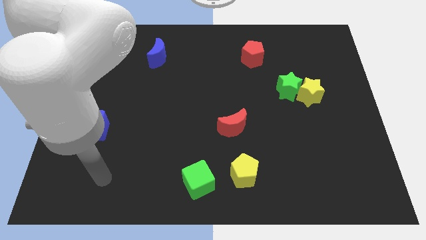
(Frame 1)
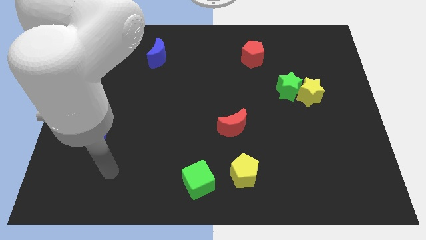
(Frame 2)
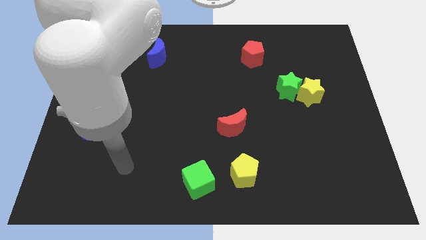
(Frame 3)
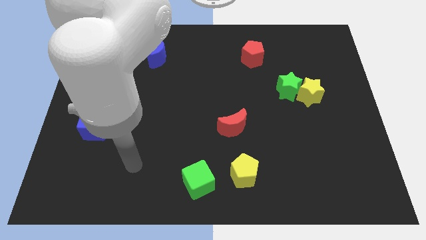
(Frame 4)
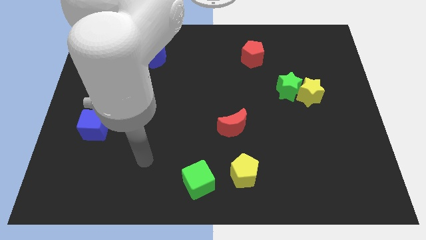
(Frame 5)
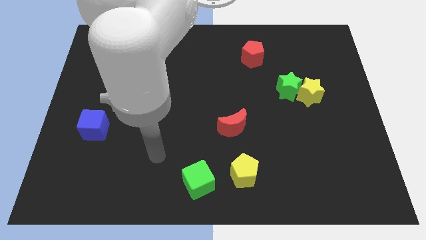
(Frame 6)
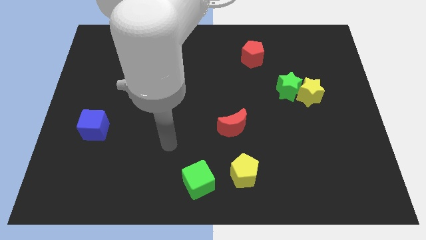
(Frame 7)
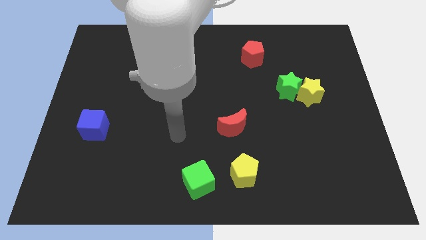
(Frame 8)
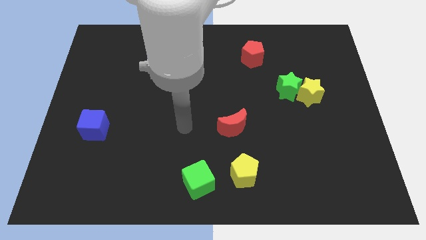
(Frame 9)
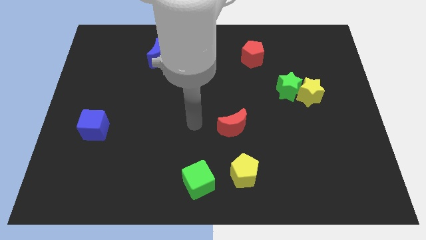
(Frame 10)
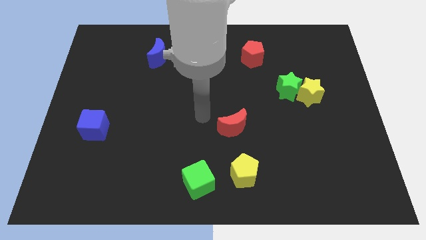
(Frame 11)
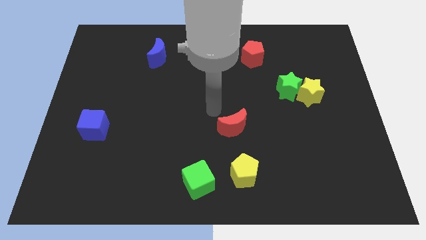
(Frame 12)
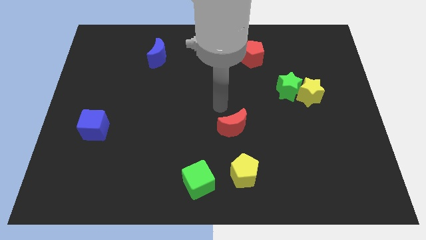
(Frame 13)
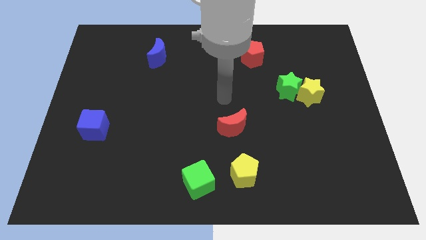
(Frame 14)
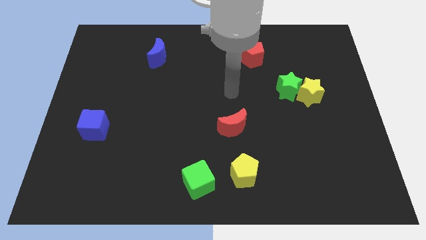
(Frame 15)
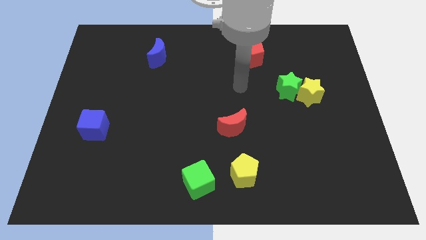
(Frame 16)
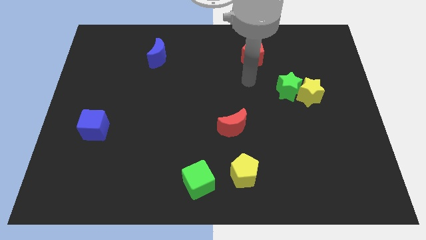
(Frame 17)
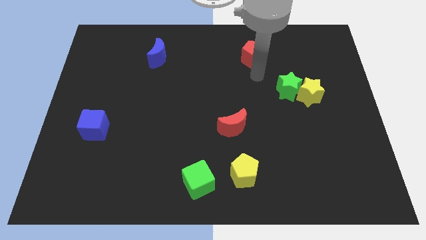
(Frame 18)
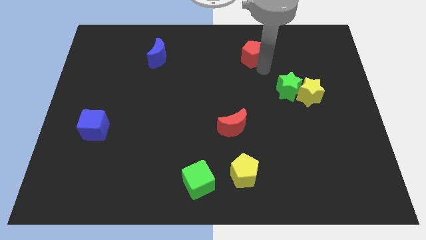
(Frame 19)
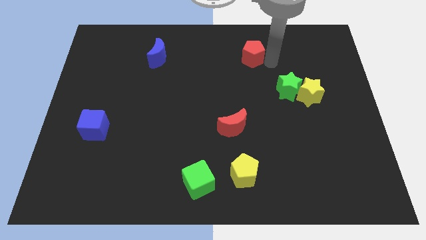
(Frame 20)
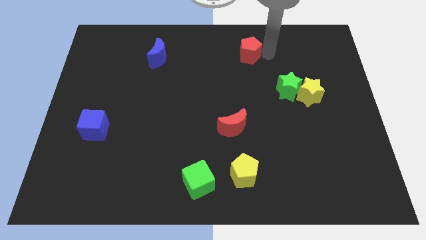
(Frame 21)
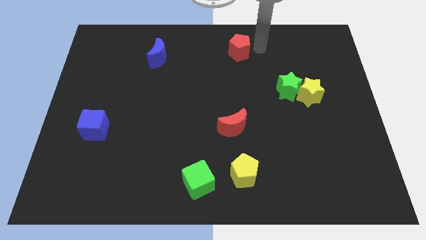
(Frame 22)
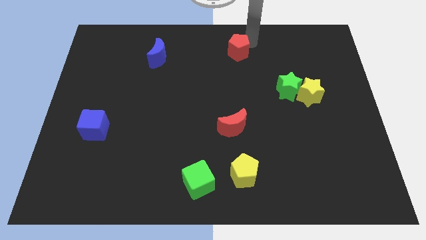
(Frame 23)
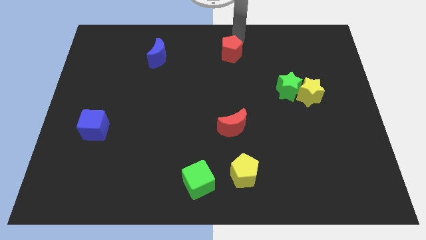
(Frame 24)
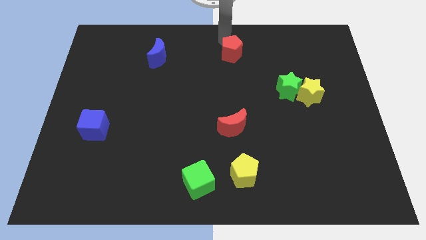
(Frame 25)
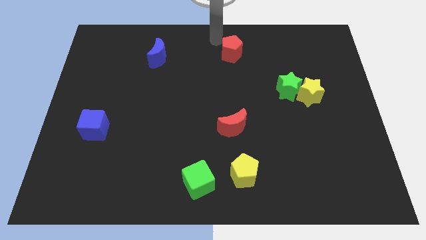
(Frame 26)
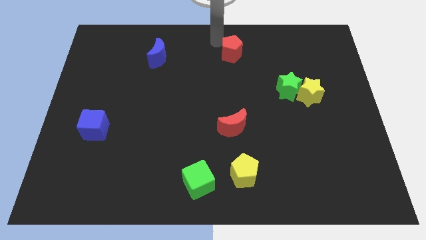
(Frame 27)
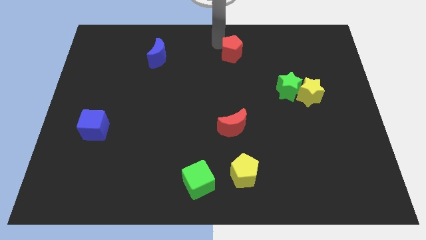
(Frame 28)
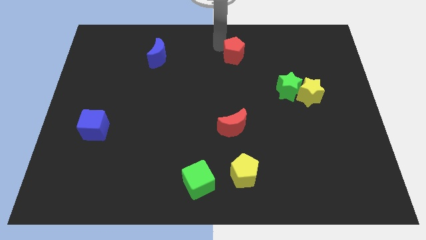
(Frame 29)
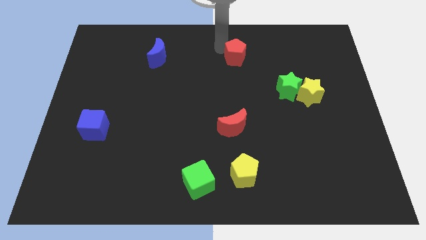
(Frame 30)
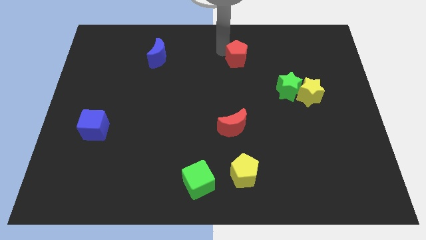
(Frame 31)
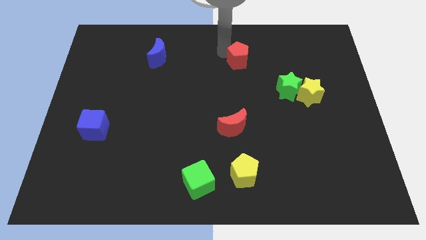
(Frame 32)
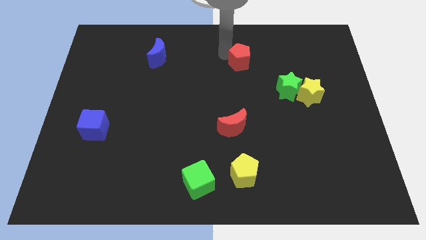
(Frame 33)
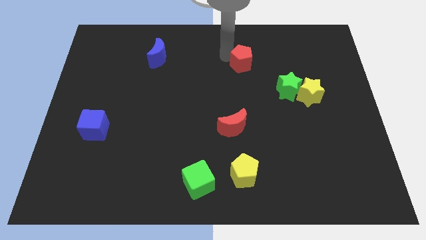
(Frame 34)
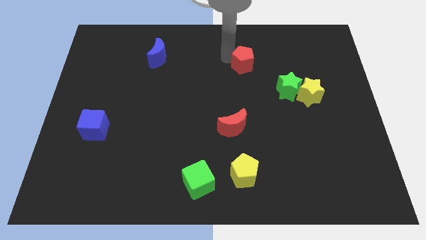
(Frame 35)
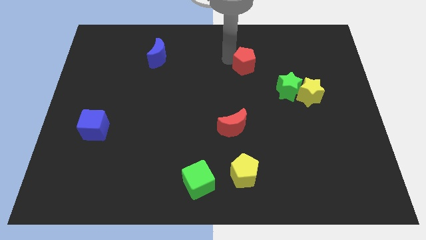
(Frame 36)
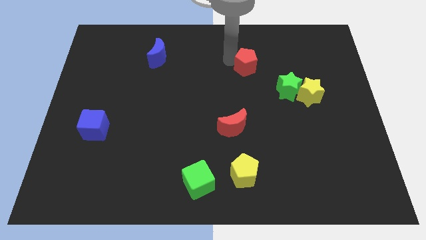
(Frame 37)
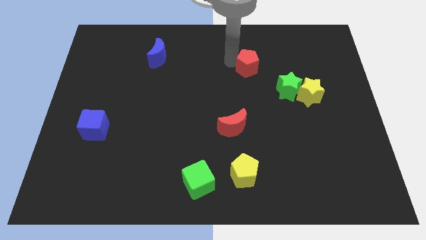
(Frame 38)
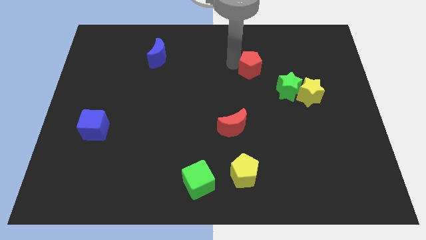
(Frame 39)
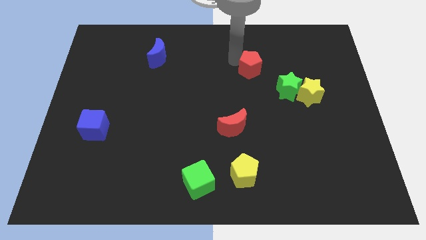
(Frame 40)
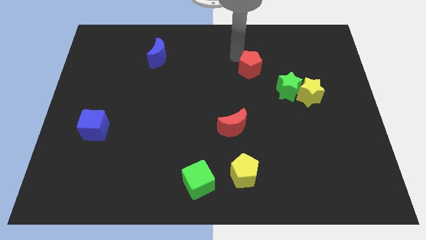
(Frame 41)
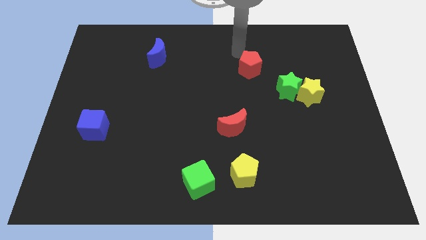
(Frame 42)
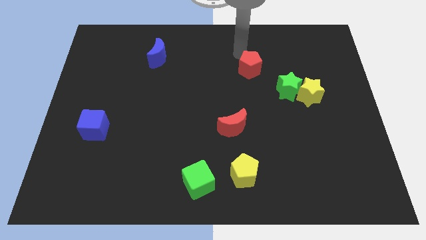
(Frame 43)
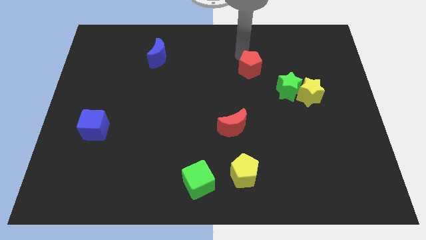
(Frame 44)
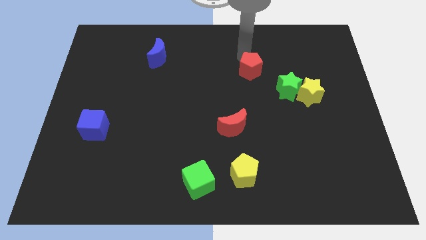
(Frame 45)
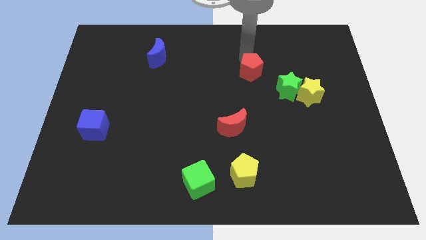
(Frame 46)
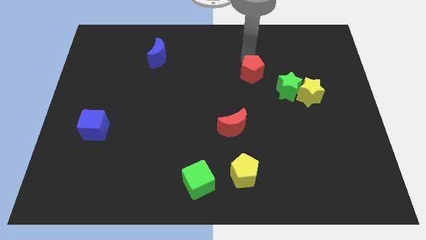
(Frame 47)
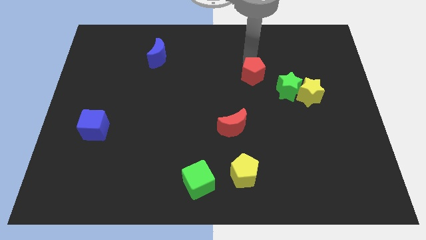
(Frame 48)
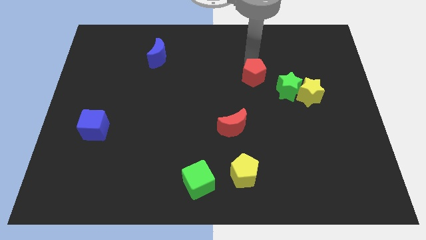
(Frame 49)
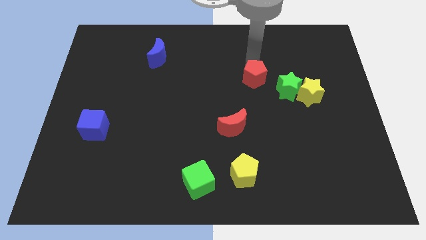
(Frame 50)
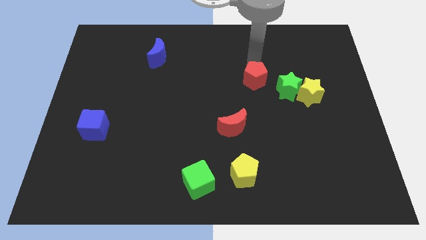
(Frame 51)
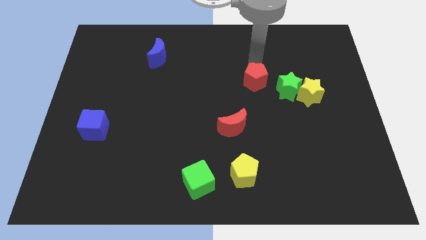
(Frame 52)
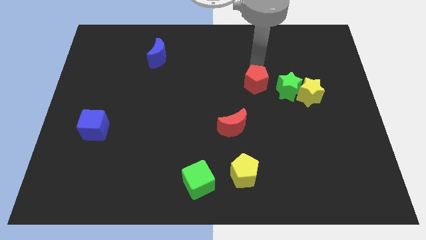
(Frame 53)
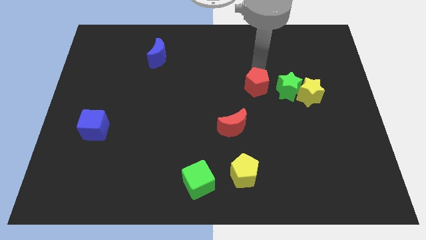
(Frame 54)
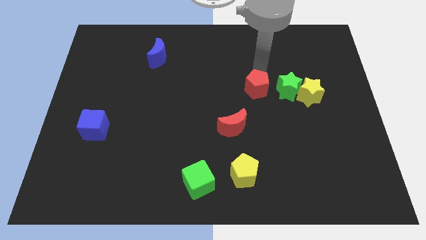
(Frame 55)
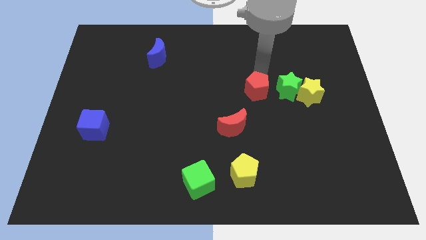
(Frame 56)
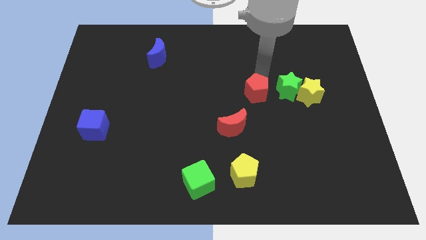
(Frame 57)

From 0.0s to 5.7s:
move the red pentagon to the bottom left of the green star

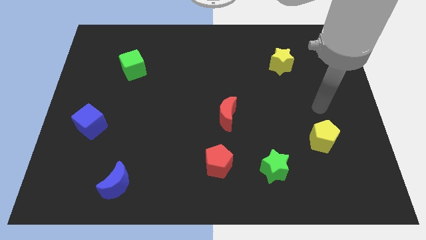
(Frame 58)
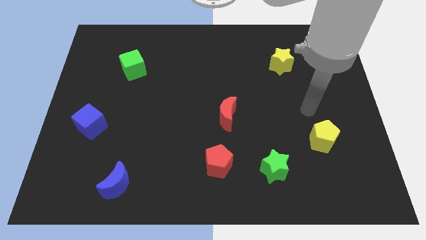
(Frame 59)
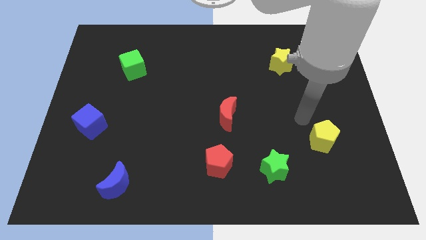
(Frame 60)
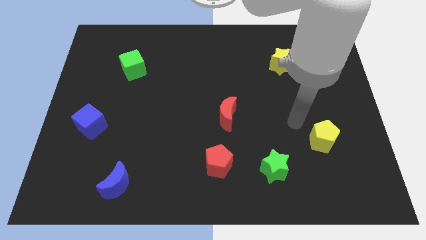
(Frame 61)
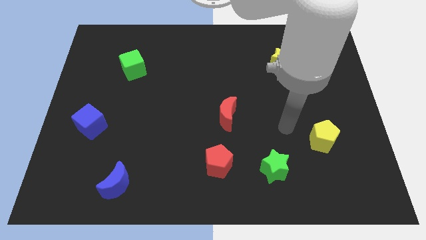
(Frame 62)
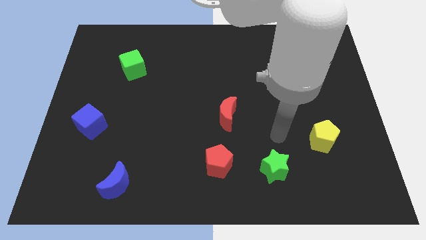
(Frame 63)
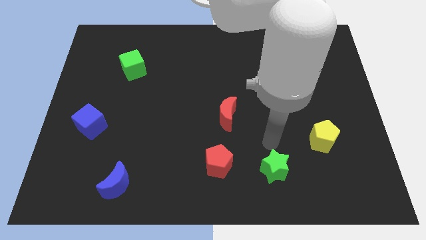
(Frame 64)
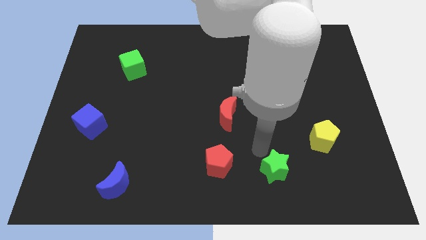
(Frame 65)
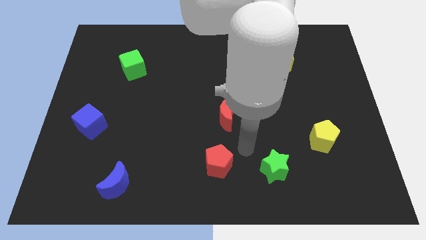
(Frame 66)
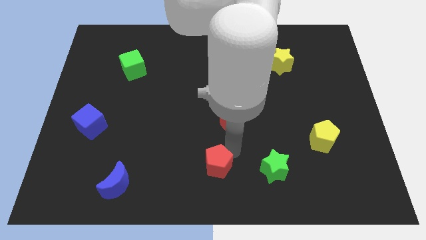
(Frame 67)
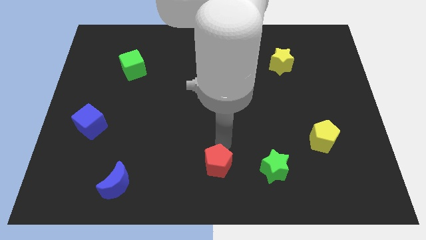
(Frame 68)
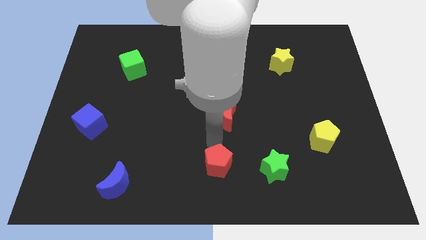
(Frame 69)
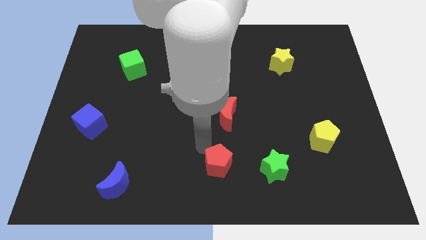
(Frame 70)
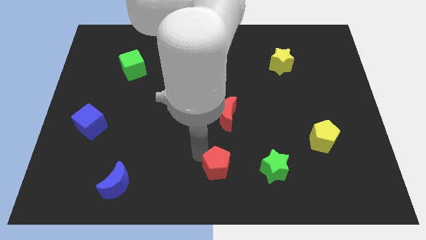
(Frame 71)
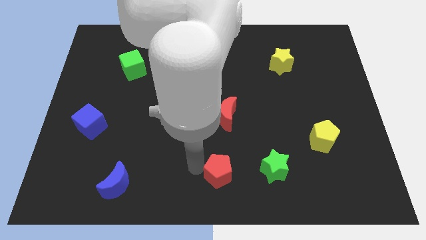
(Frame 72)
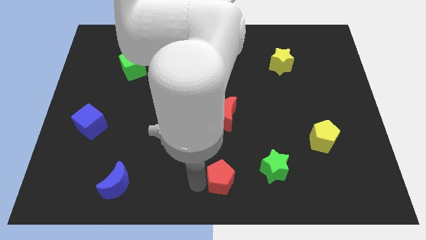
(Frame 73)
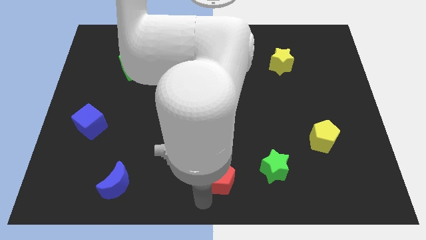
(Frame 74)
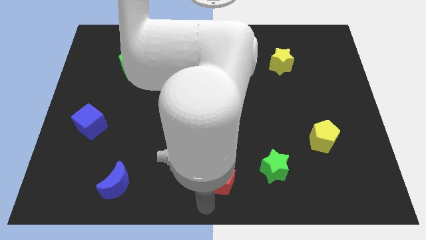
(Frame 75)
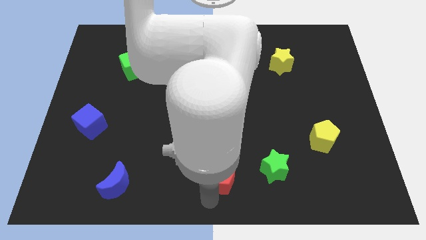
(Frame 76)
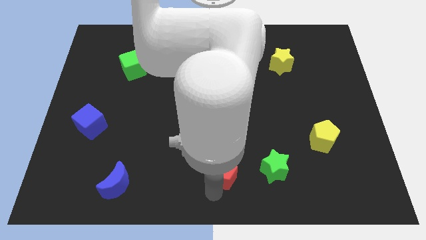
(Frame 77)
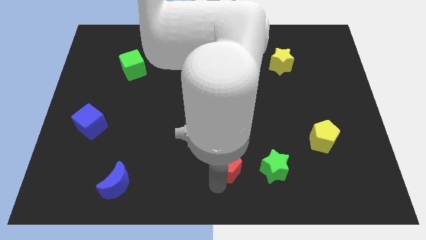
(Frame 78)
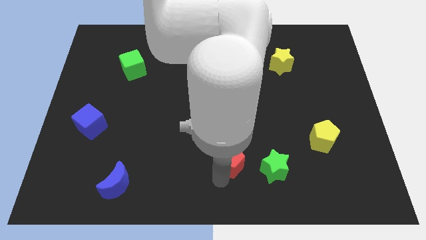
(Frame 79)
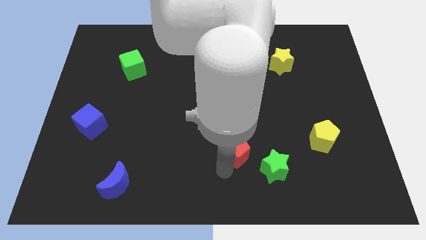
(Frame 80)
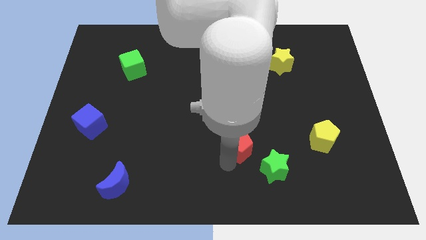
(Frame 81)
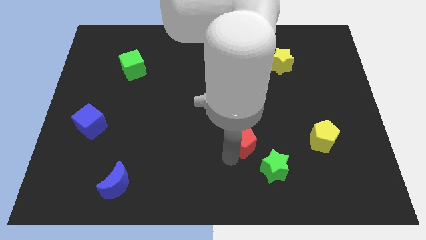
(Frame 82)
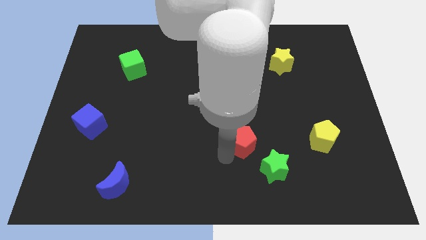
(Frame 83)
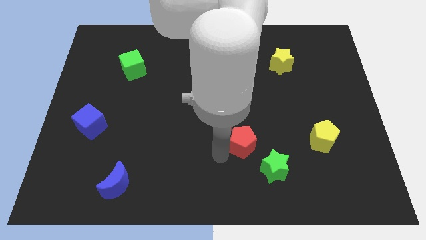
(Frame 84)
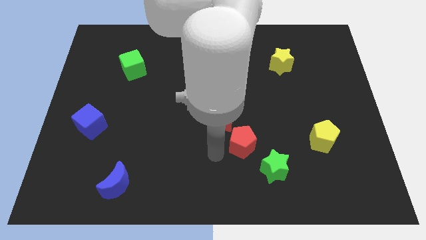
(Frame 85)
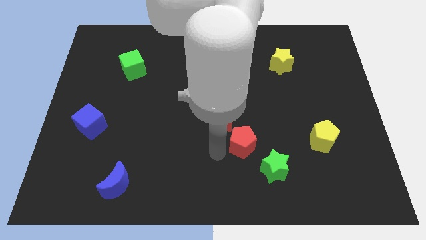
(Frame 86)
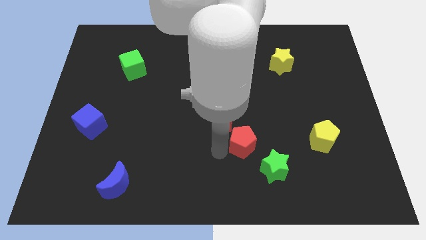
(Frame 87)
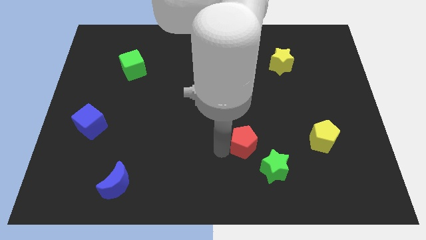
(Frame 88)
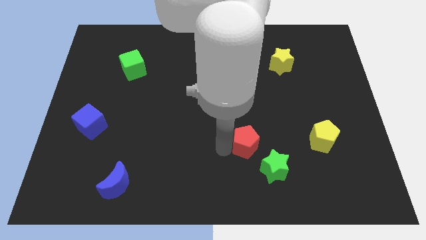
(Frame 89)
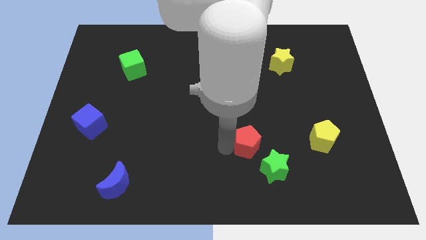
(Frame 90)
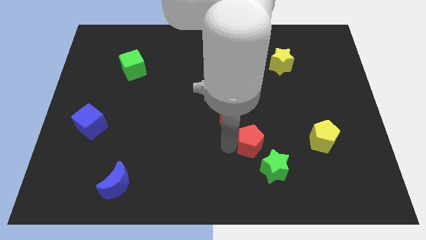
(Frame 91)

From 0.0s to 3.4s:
move the red pentagon above the green star
